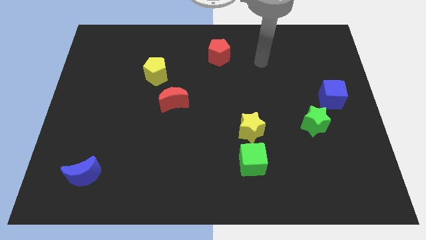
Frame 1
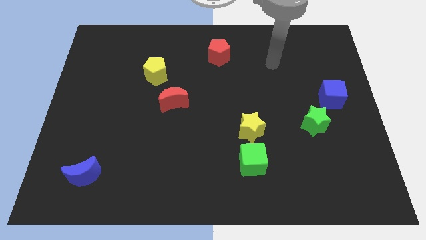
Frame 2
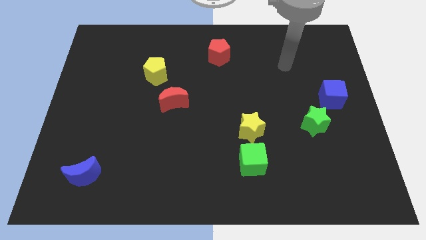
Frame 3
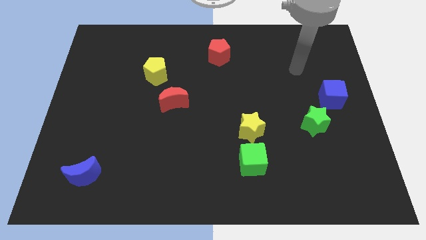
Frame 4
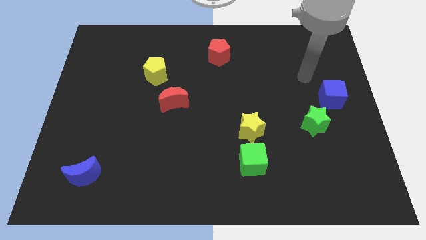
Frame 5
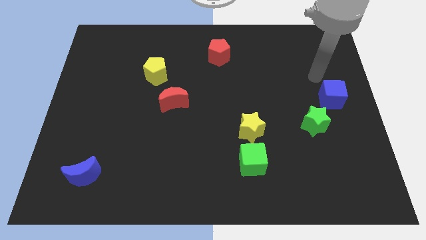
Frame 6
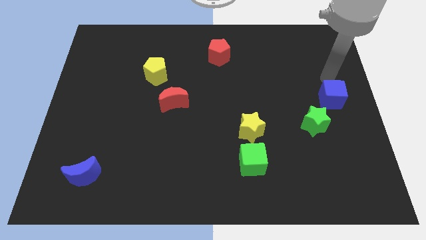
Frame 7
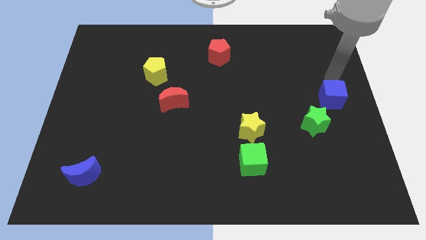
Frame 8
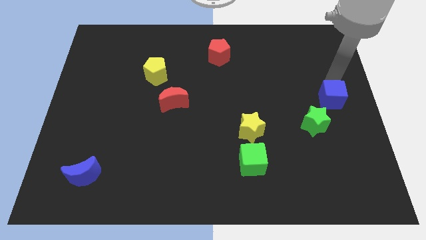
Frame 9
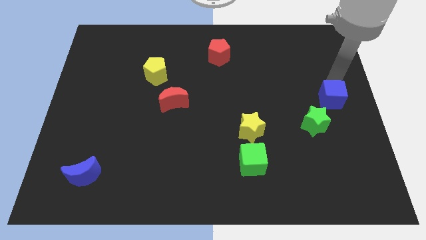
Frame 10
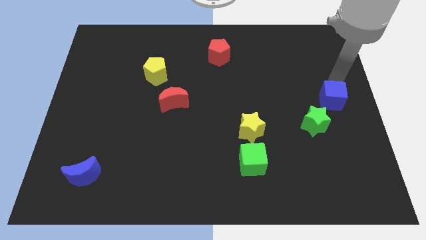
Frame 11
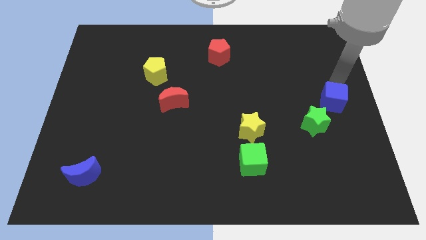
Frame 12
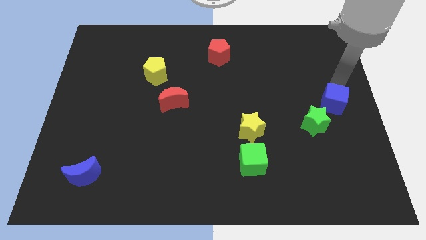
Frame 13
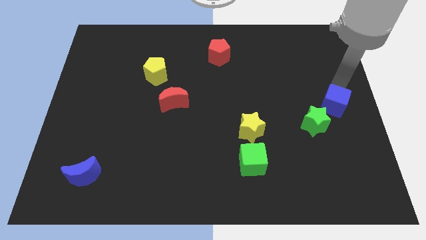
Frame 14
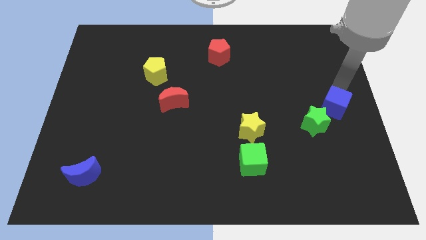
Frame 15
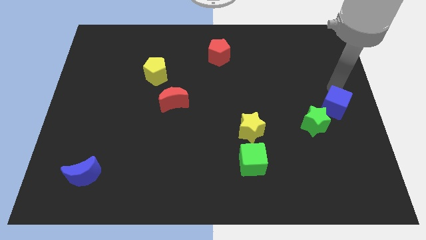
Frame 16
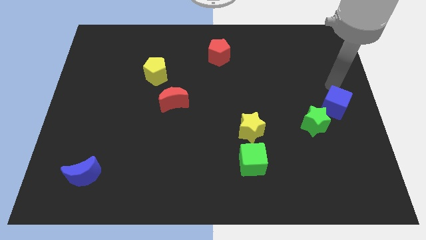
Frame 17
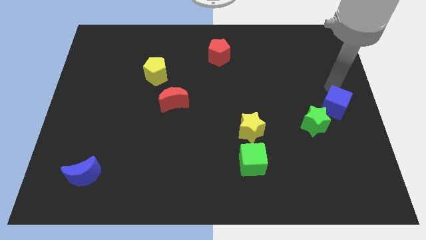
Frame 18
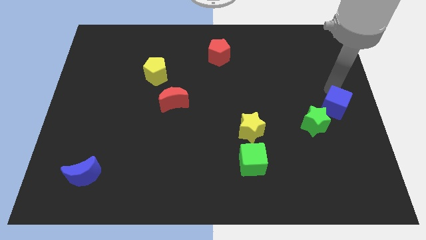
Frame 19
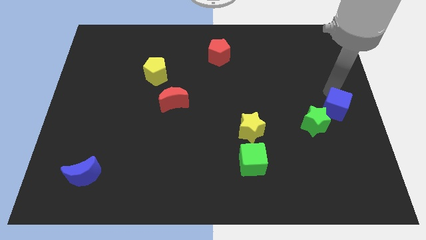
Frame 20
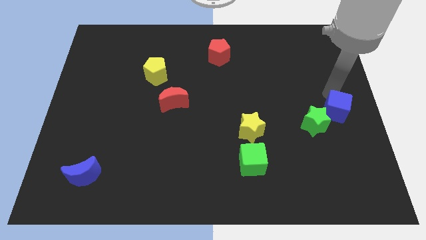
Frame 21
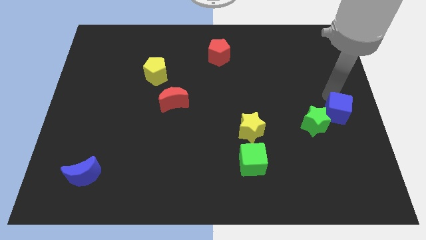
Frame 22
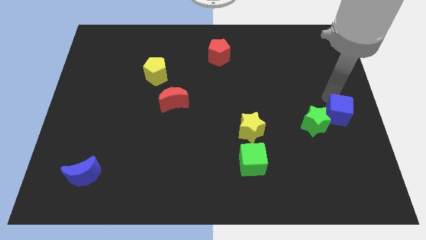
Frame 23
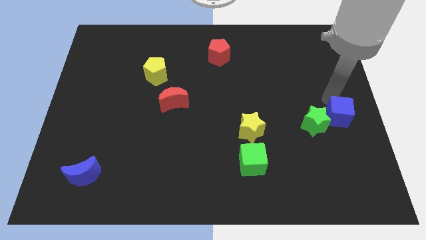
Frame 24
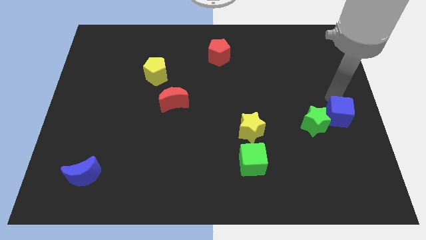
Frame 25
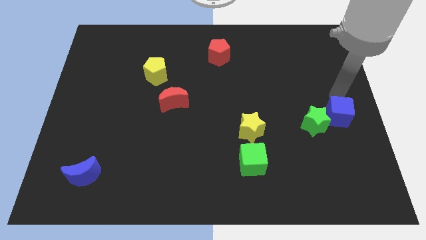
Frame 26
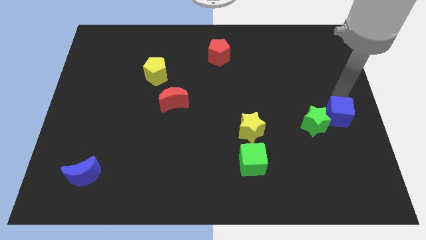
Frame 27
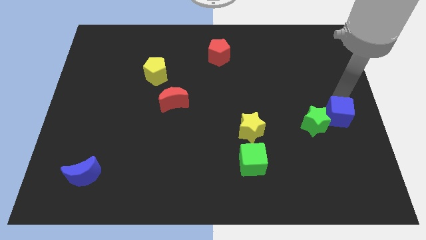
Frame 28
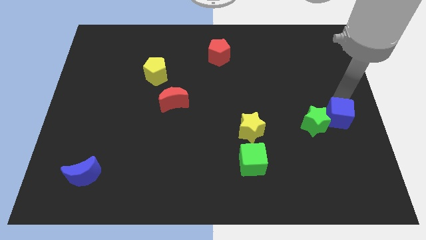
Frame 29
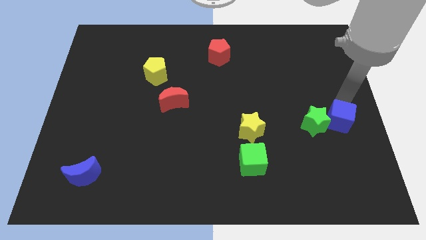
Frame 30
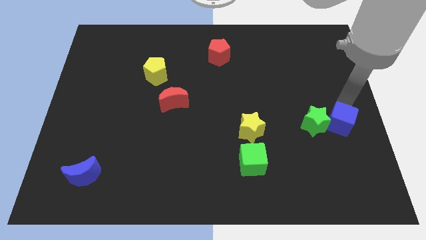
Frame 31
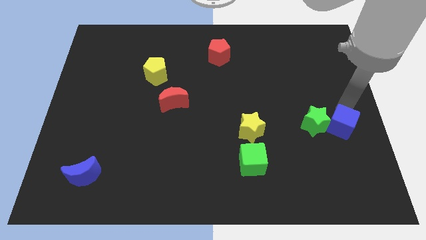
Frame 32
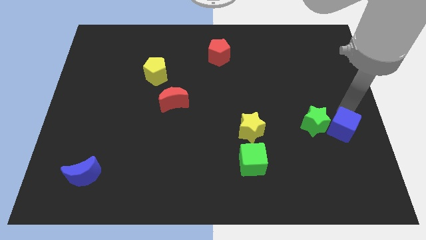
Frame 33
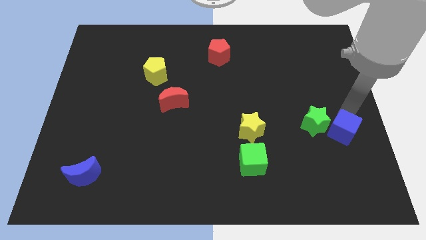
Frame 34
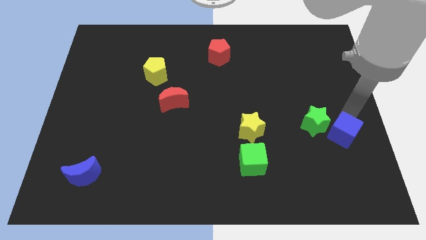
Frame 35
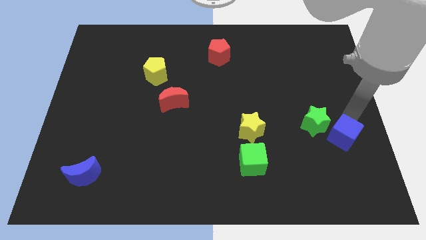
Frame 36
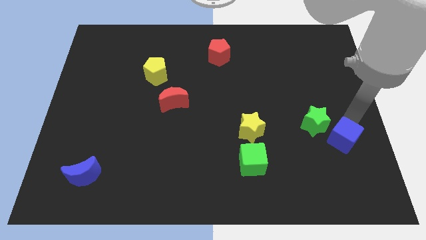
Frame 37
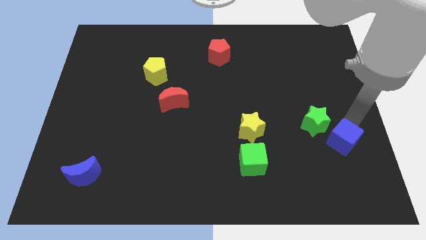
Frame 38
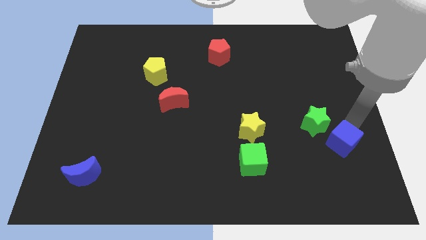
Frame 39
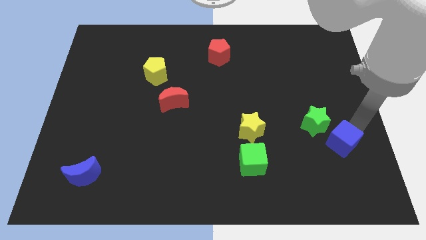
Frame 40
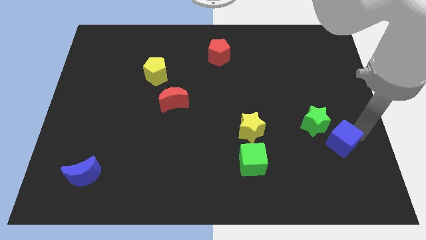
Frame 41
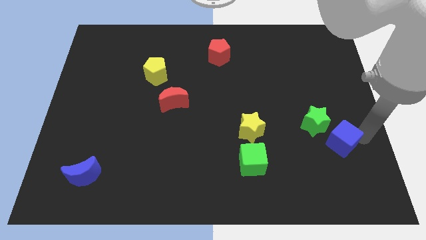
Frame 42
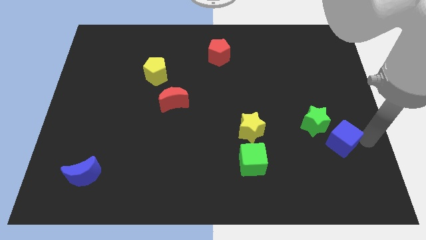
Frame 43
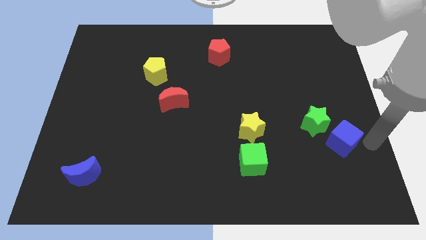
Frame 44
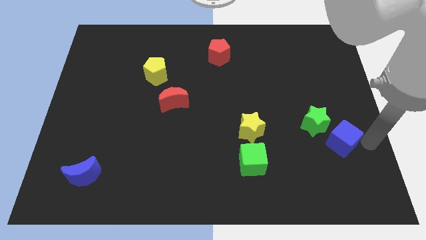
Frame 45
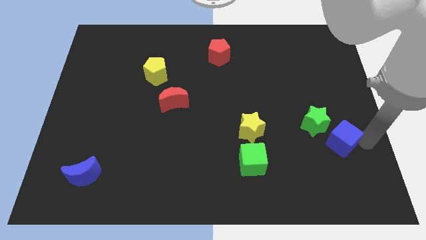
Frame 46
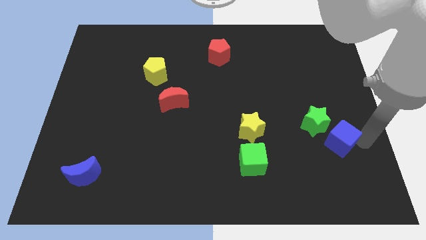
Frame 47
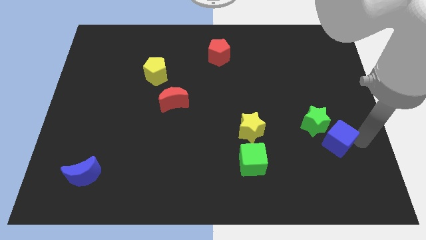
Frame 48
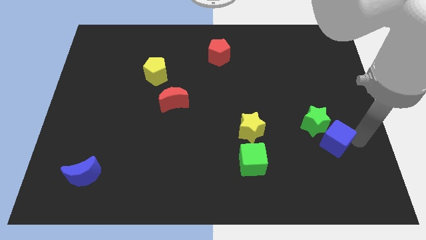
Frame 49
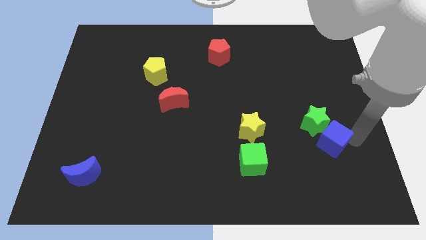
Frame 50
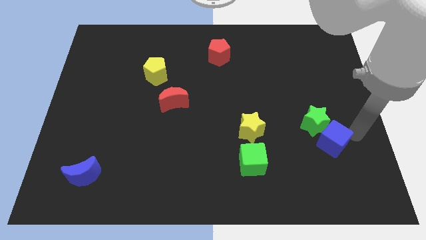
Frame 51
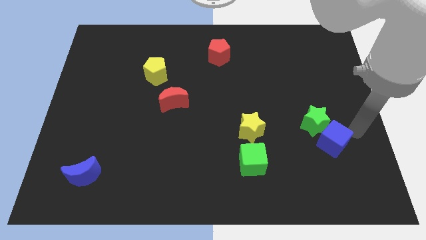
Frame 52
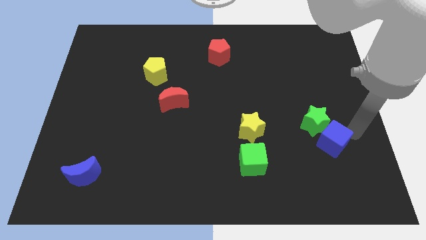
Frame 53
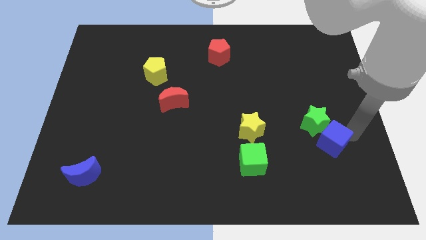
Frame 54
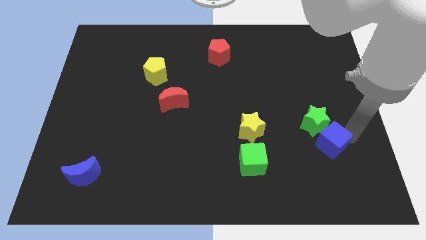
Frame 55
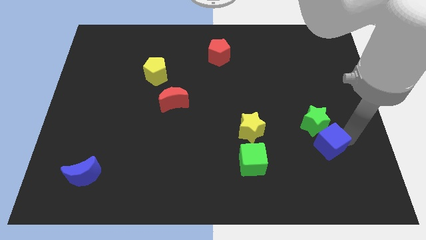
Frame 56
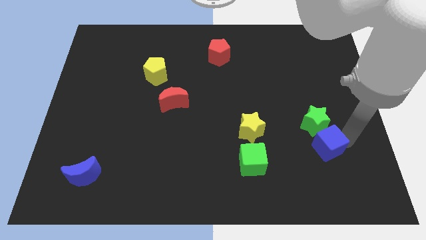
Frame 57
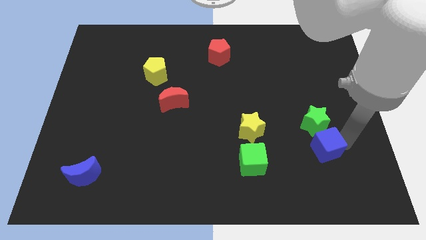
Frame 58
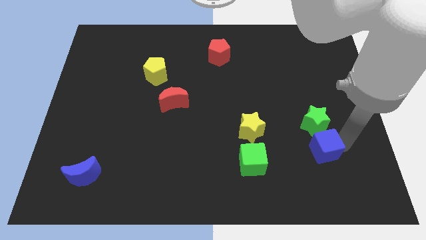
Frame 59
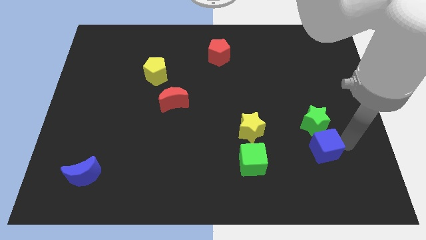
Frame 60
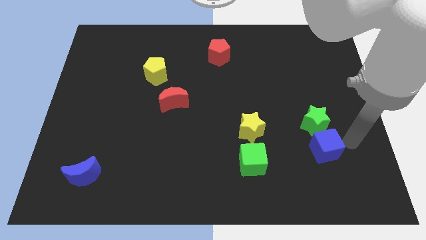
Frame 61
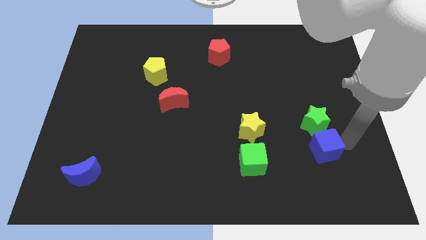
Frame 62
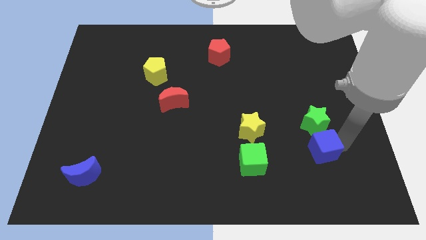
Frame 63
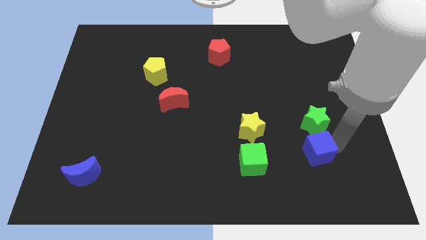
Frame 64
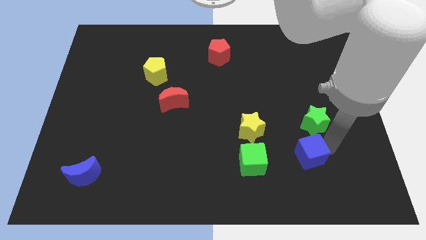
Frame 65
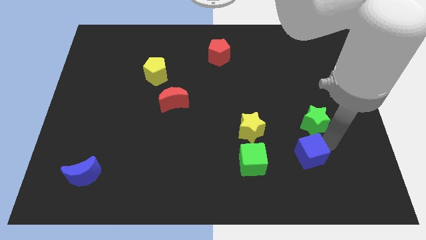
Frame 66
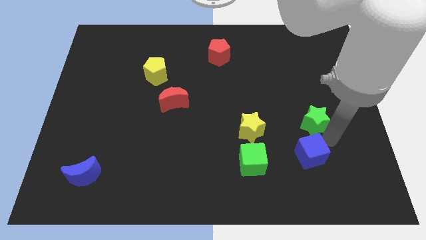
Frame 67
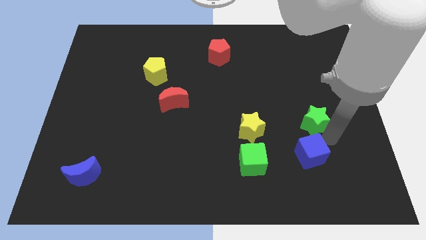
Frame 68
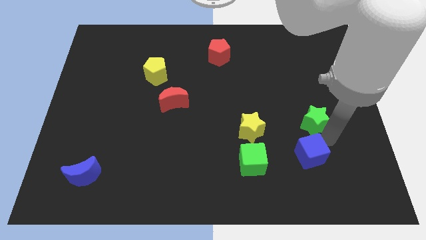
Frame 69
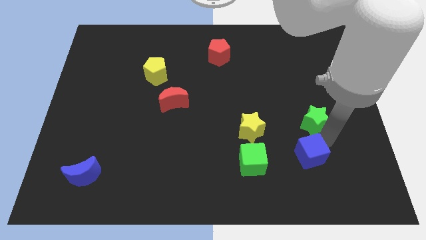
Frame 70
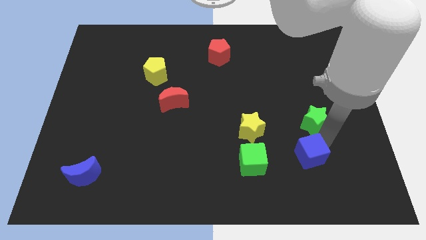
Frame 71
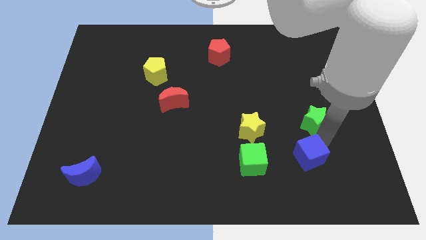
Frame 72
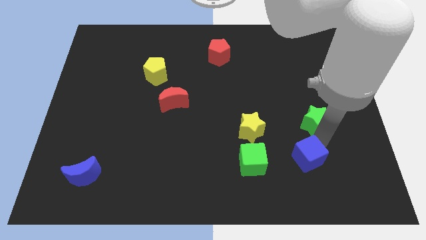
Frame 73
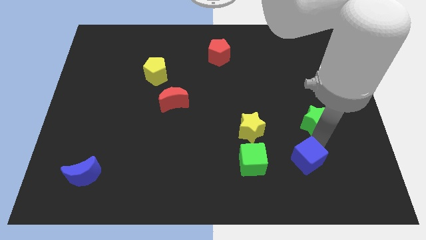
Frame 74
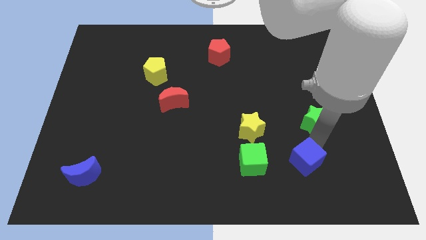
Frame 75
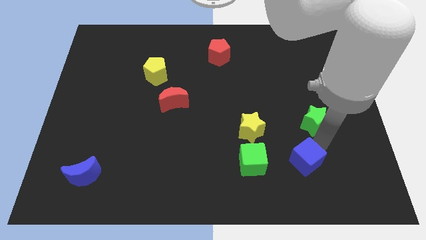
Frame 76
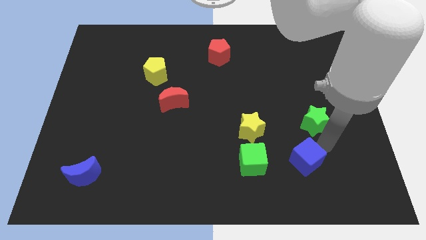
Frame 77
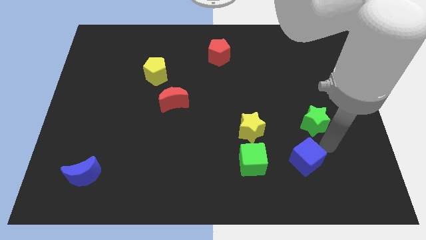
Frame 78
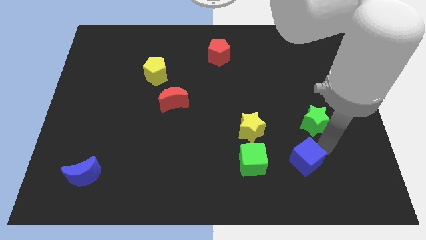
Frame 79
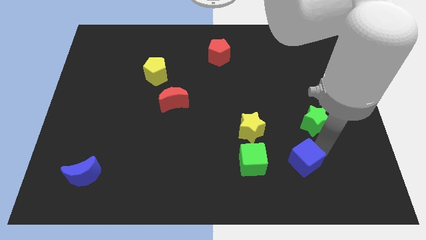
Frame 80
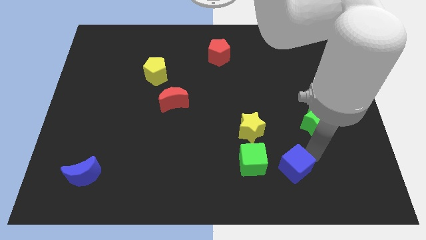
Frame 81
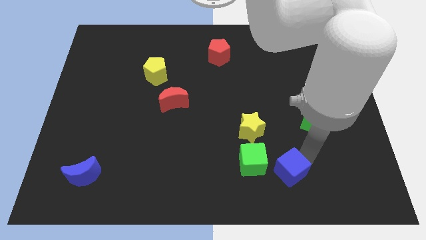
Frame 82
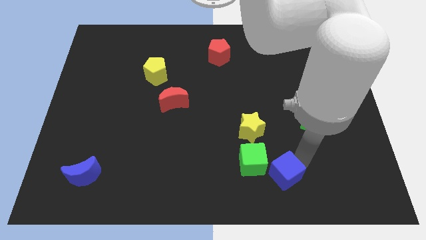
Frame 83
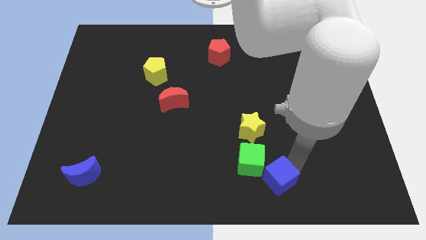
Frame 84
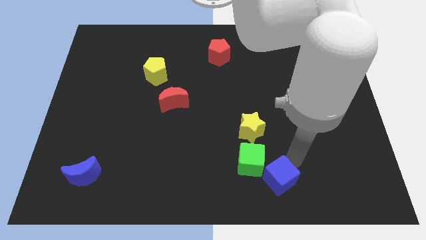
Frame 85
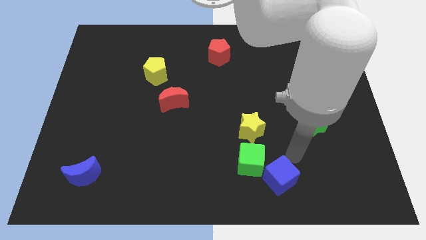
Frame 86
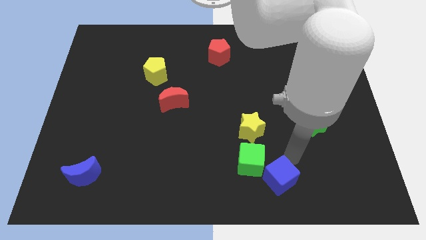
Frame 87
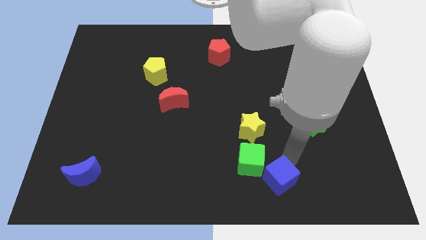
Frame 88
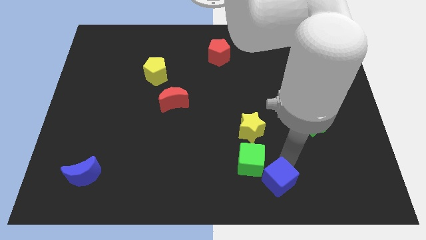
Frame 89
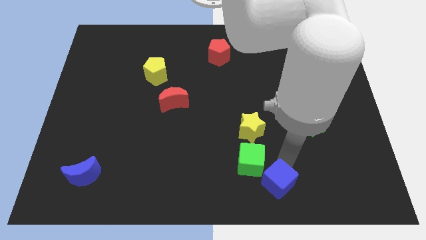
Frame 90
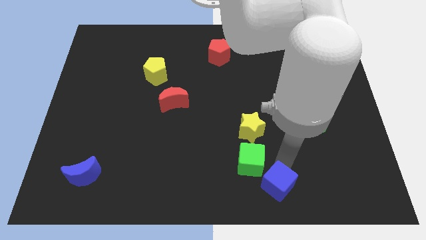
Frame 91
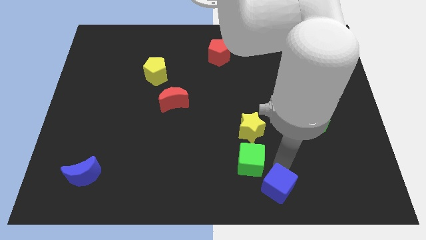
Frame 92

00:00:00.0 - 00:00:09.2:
put the blue cube to the bottom side
